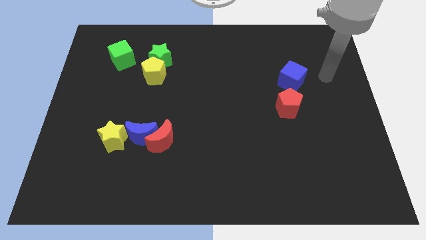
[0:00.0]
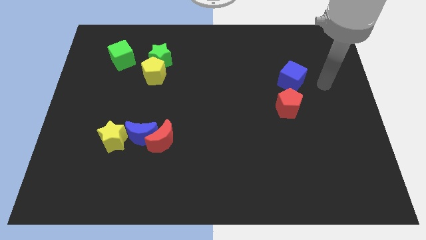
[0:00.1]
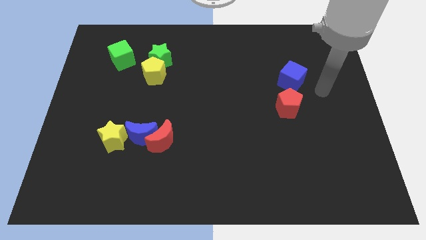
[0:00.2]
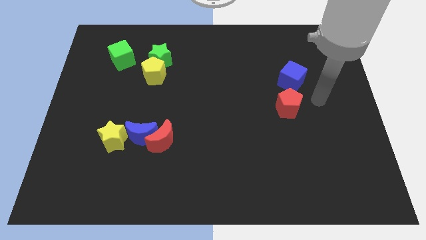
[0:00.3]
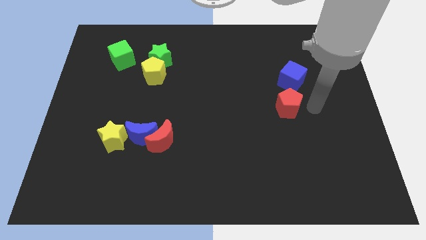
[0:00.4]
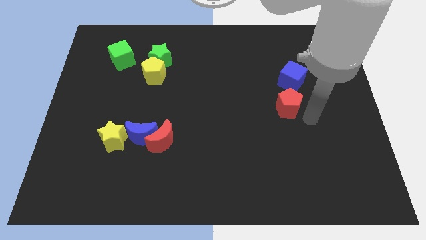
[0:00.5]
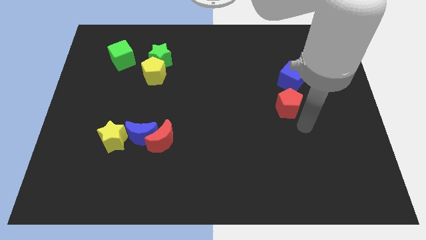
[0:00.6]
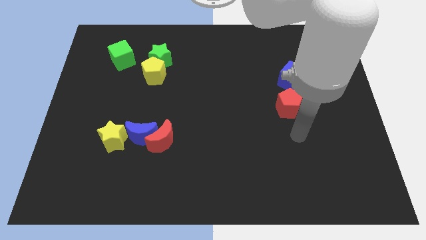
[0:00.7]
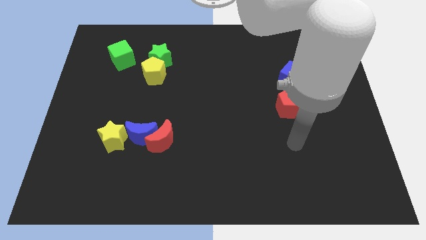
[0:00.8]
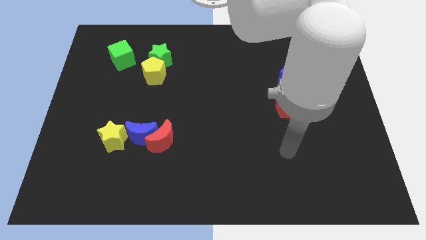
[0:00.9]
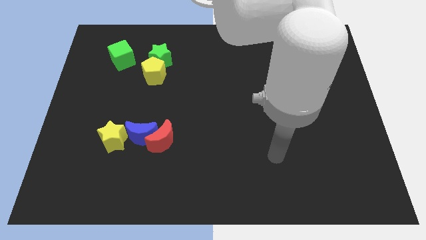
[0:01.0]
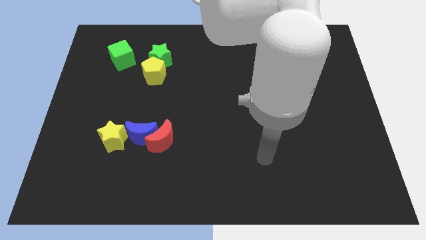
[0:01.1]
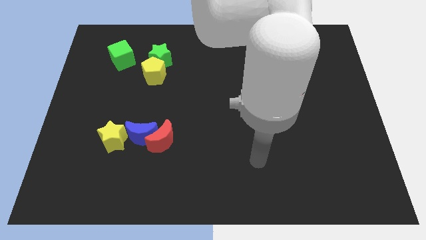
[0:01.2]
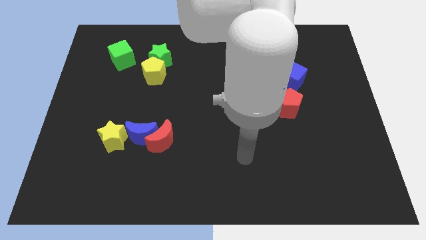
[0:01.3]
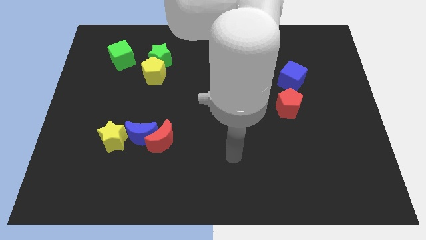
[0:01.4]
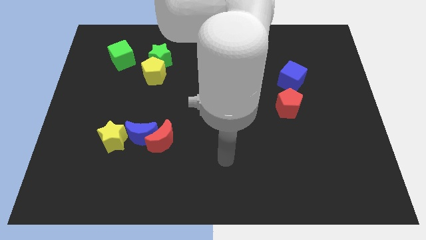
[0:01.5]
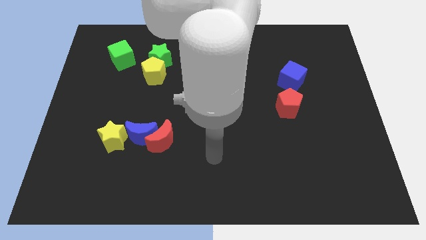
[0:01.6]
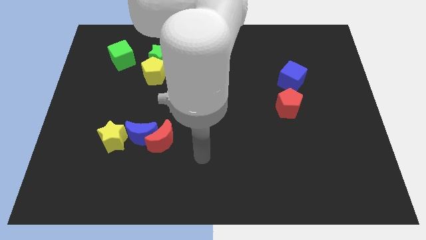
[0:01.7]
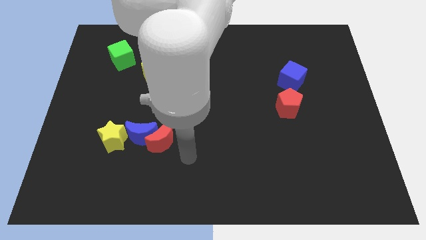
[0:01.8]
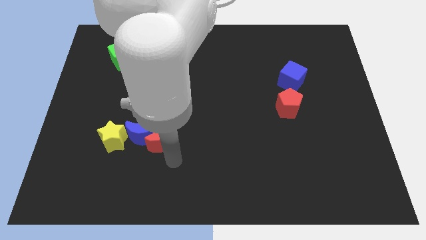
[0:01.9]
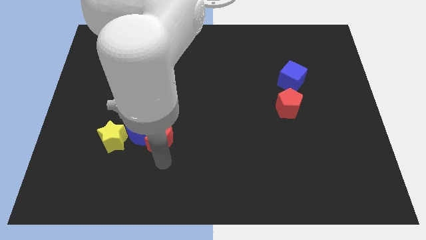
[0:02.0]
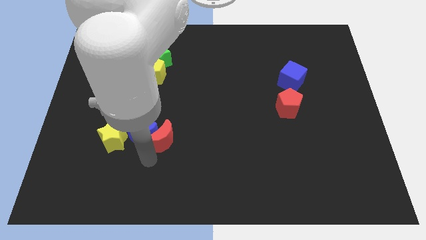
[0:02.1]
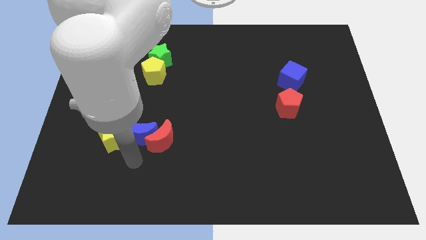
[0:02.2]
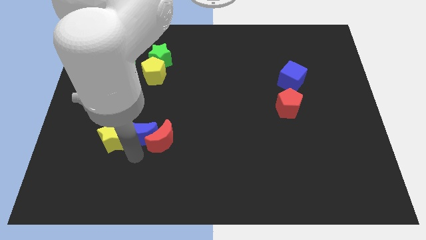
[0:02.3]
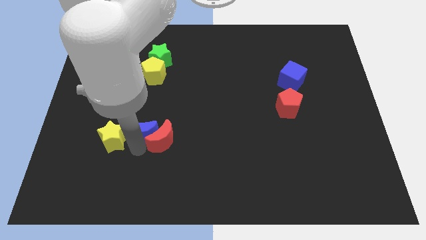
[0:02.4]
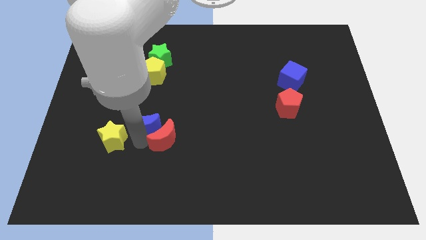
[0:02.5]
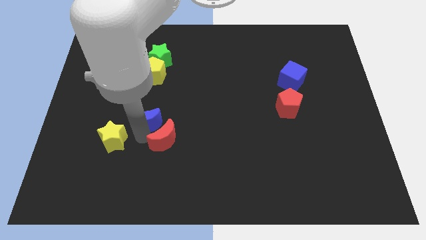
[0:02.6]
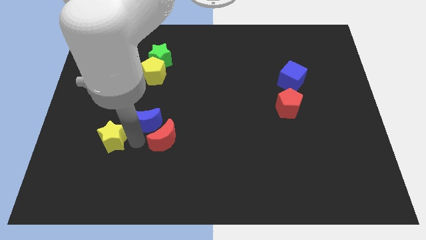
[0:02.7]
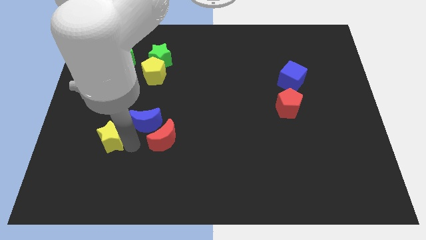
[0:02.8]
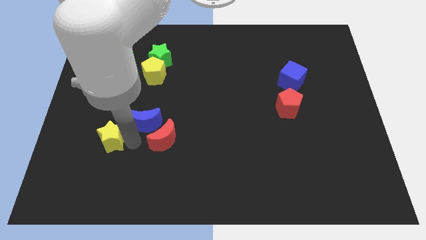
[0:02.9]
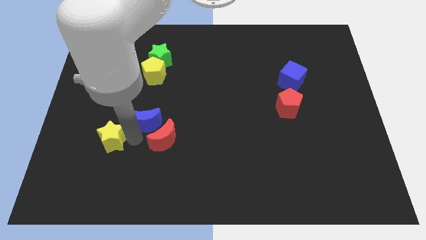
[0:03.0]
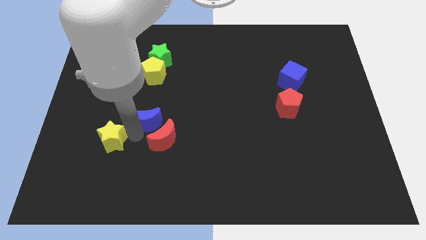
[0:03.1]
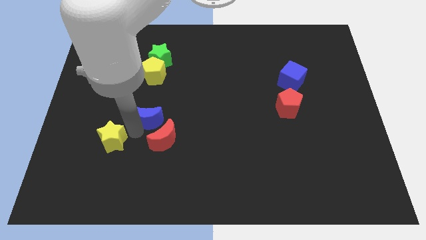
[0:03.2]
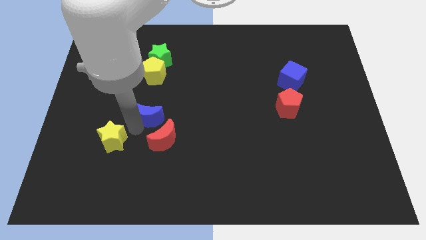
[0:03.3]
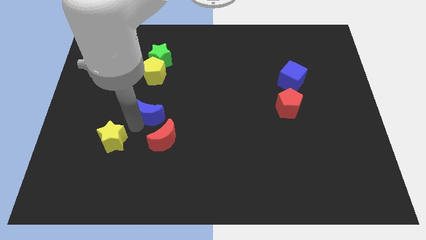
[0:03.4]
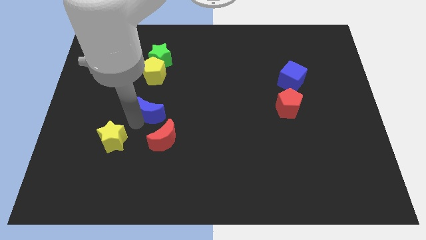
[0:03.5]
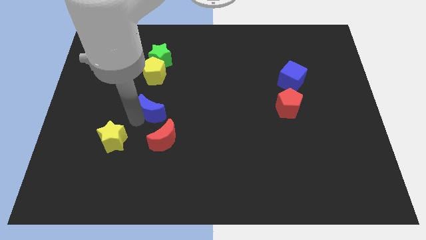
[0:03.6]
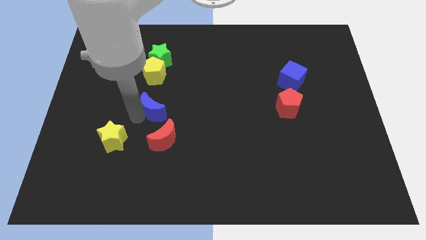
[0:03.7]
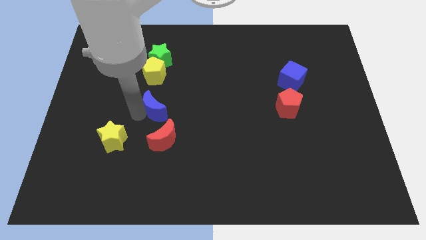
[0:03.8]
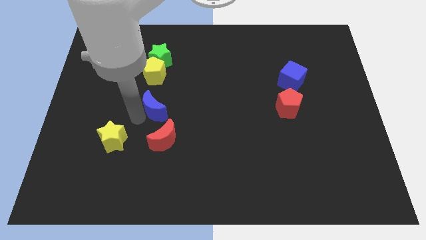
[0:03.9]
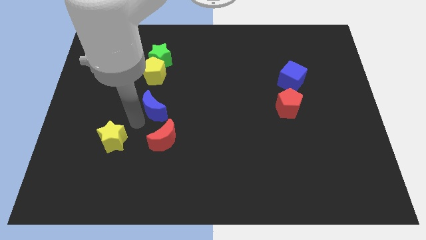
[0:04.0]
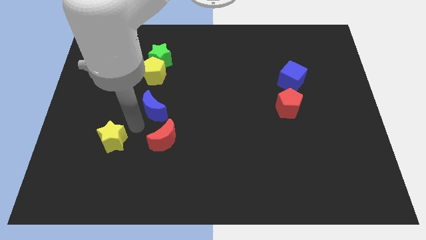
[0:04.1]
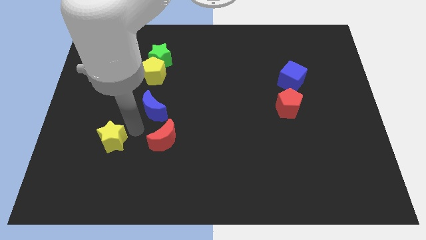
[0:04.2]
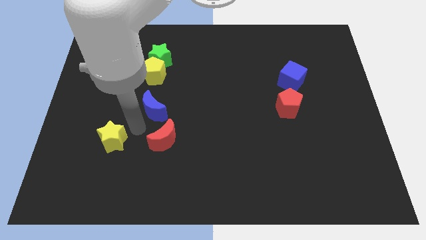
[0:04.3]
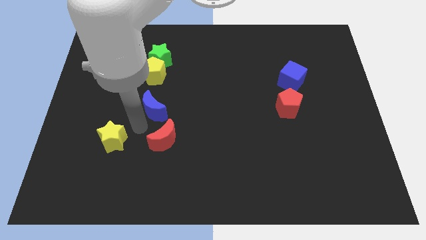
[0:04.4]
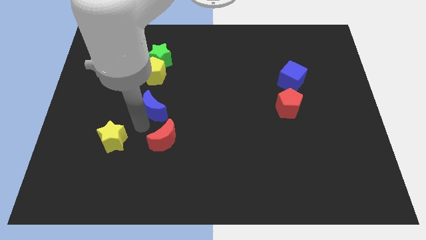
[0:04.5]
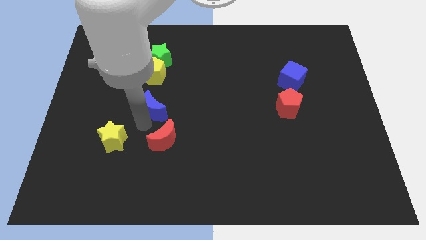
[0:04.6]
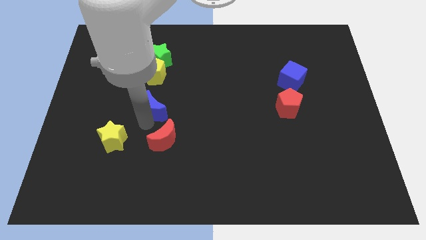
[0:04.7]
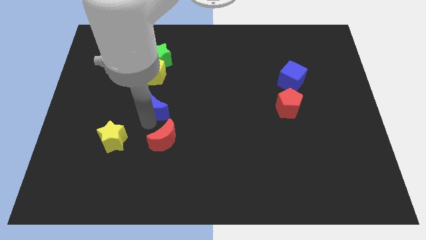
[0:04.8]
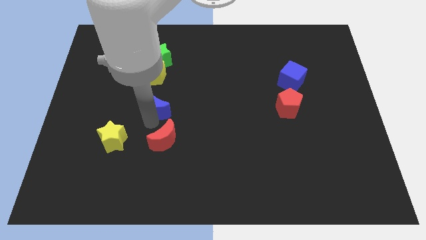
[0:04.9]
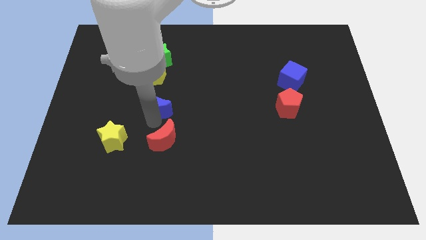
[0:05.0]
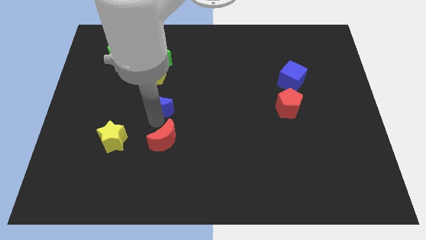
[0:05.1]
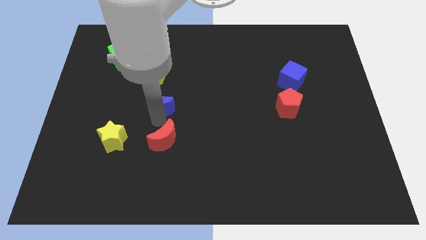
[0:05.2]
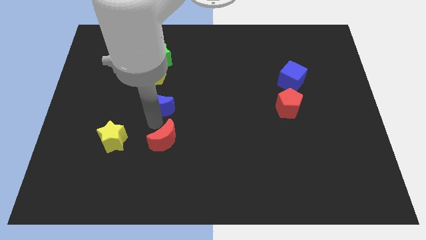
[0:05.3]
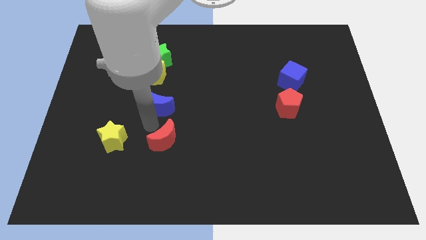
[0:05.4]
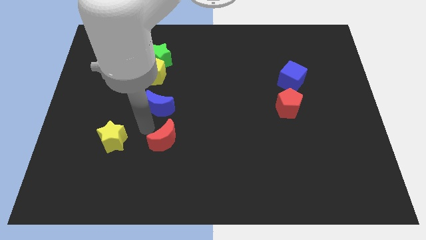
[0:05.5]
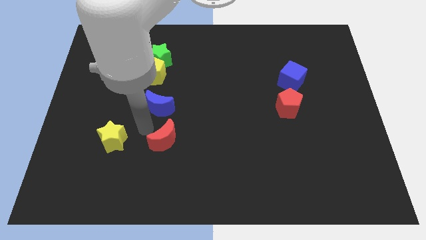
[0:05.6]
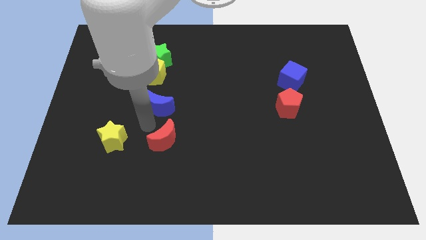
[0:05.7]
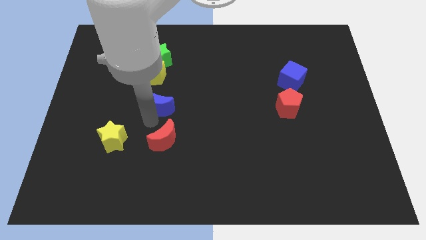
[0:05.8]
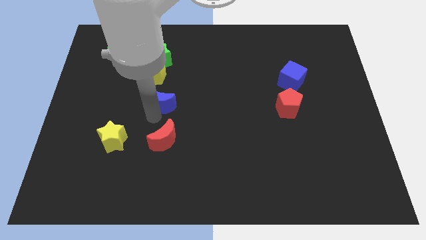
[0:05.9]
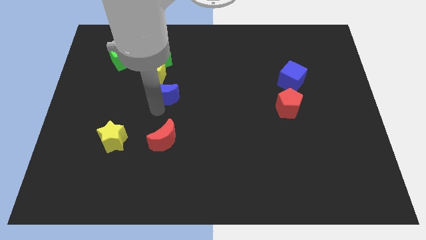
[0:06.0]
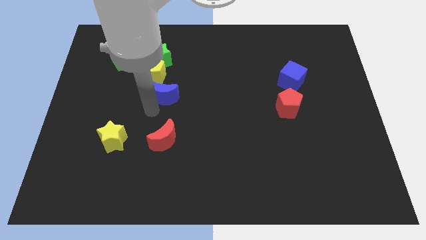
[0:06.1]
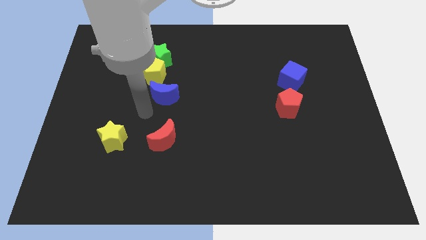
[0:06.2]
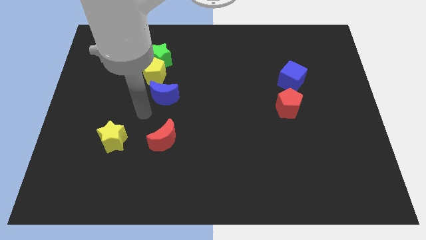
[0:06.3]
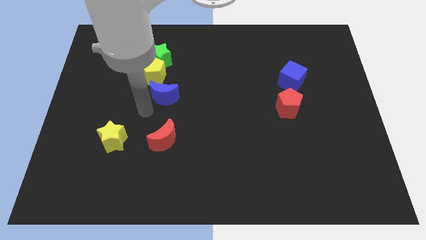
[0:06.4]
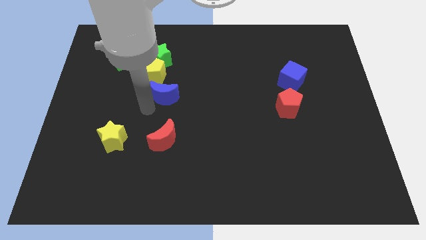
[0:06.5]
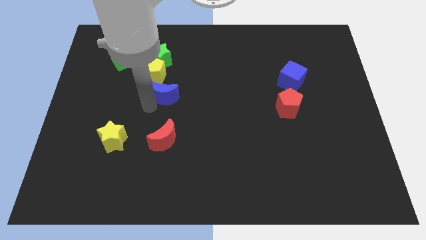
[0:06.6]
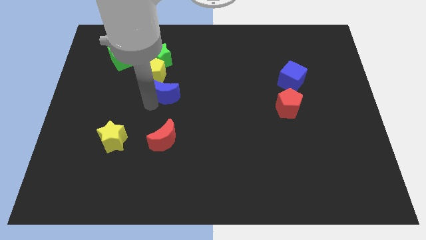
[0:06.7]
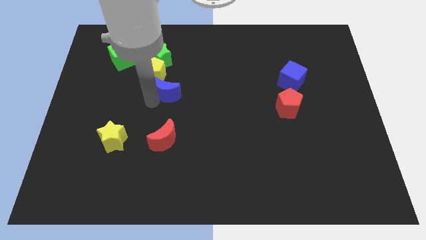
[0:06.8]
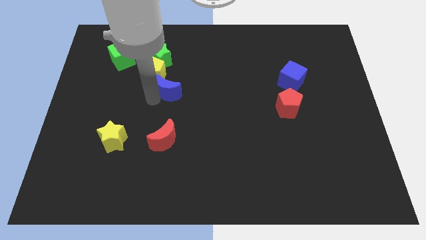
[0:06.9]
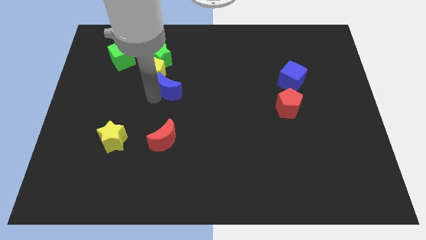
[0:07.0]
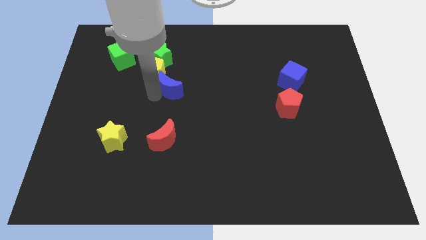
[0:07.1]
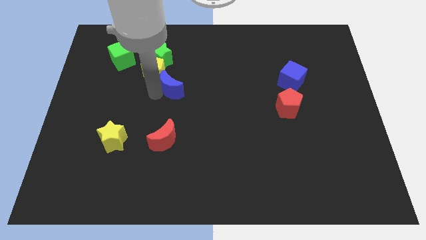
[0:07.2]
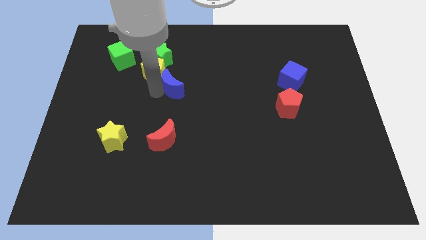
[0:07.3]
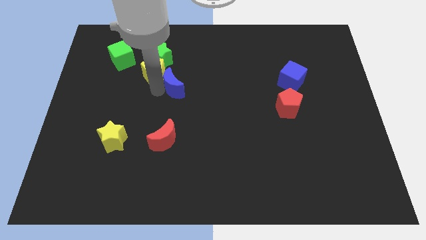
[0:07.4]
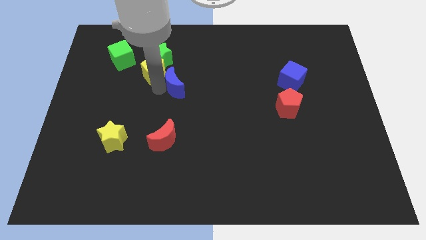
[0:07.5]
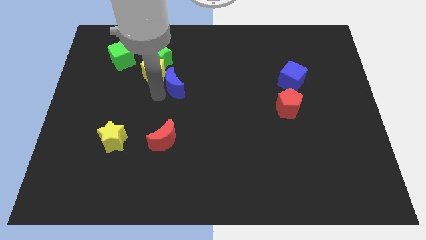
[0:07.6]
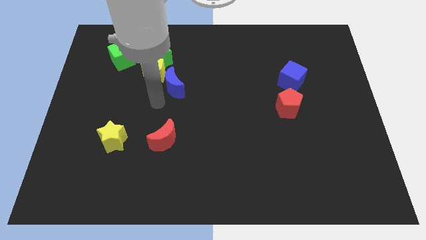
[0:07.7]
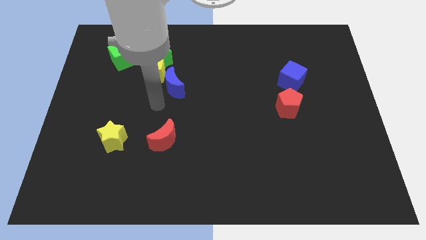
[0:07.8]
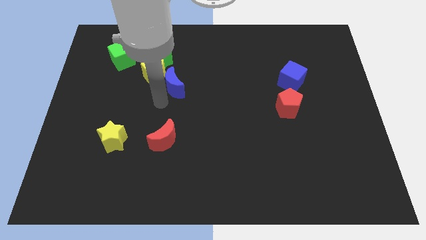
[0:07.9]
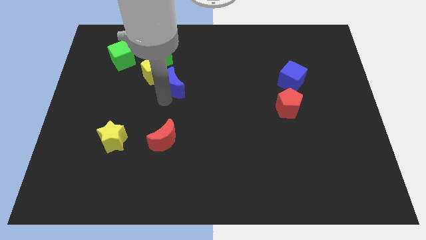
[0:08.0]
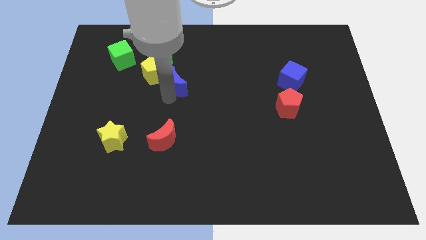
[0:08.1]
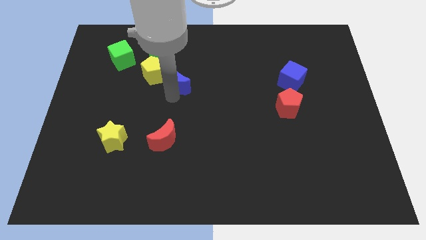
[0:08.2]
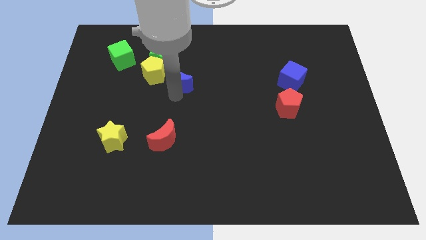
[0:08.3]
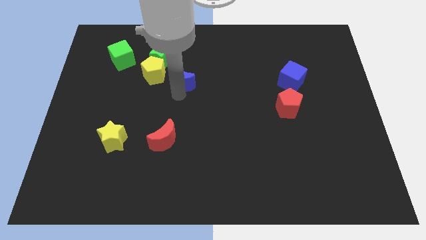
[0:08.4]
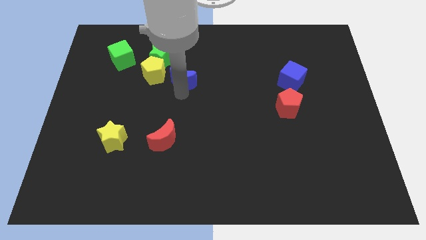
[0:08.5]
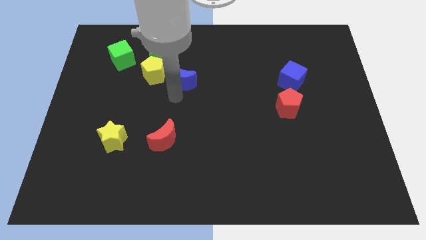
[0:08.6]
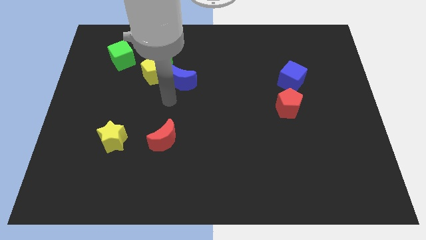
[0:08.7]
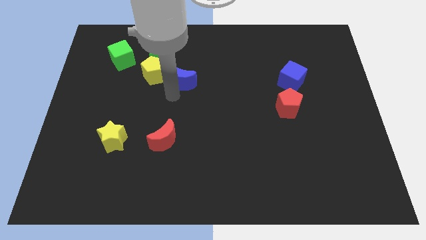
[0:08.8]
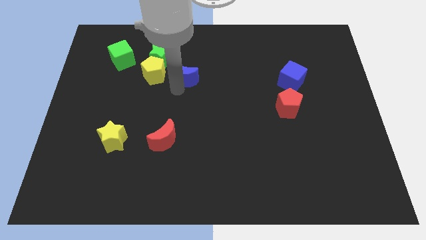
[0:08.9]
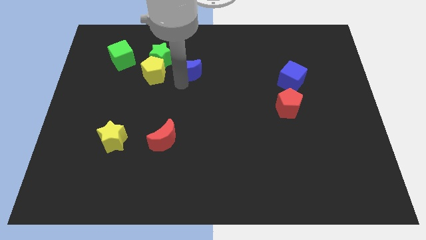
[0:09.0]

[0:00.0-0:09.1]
move the blue moon to the right side of the green star
